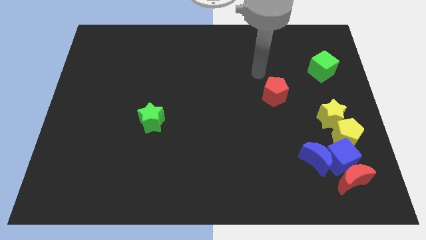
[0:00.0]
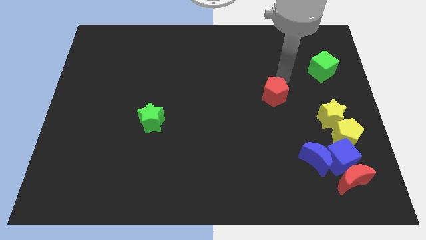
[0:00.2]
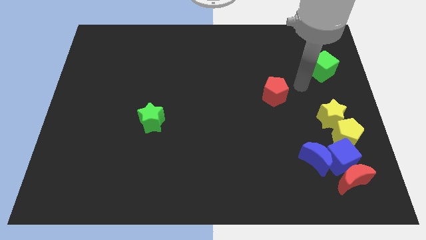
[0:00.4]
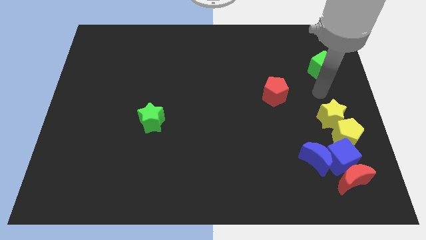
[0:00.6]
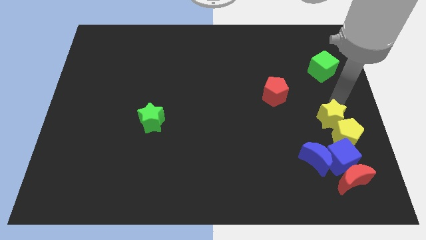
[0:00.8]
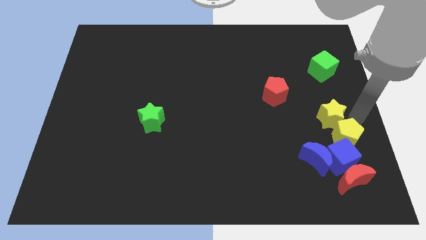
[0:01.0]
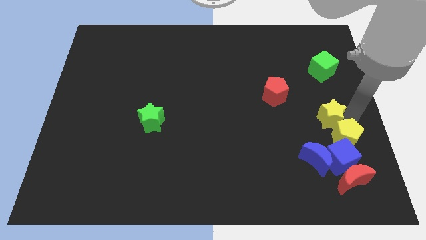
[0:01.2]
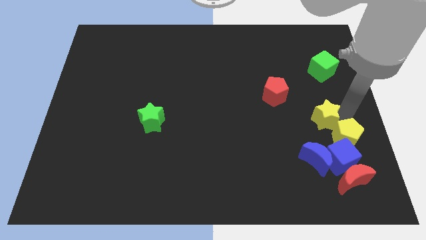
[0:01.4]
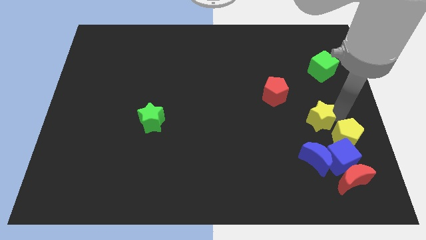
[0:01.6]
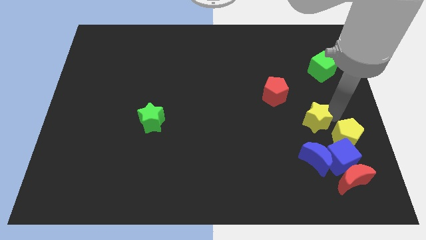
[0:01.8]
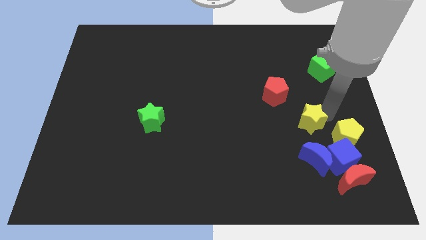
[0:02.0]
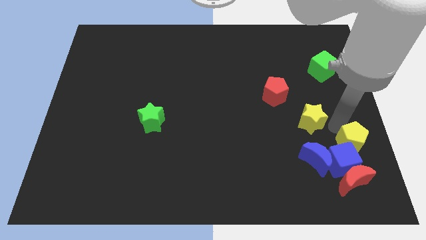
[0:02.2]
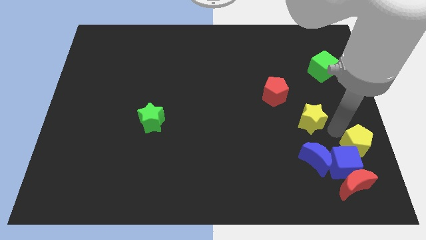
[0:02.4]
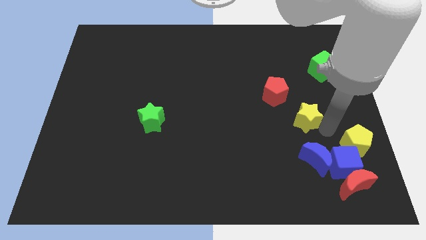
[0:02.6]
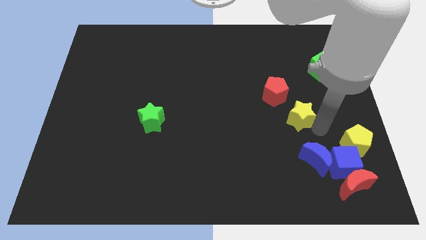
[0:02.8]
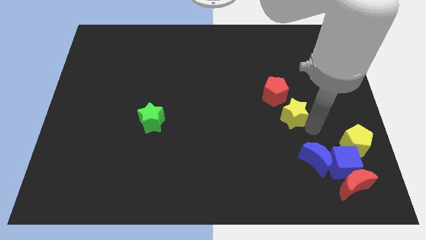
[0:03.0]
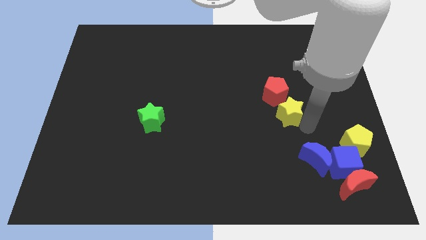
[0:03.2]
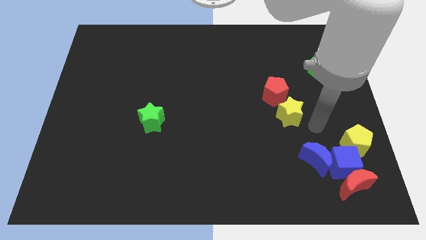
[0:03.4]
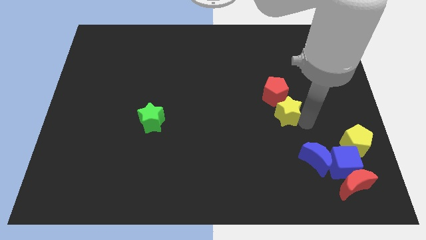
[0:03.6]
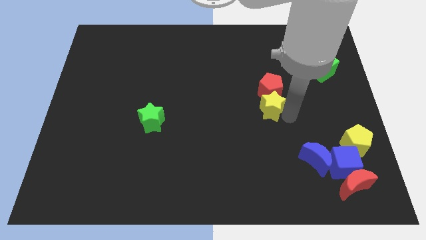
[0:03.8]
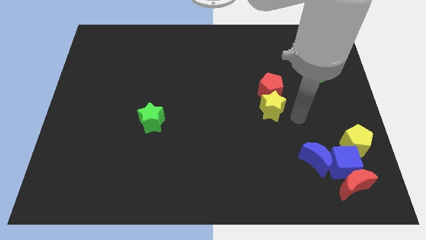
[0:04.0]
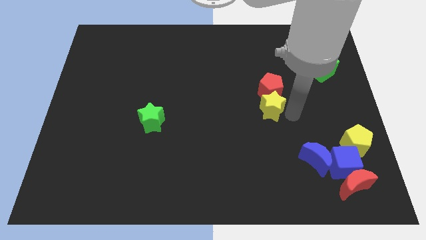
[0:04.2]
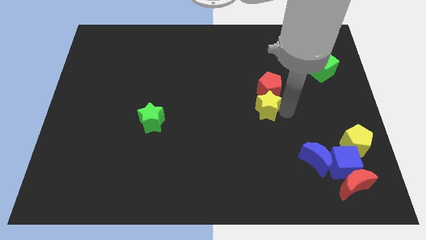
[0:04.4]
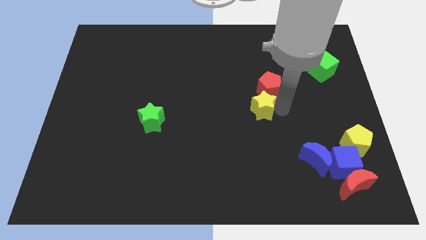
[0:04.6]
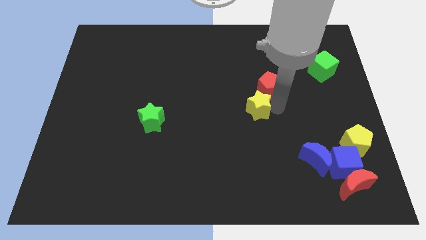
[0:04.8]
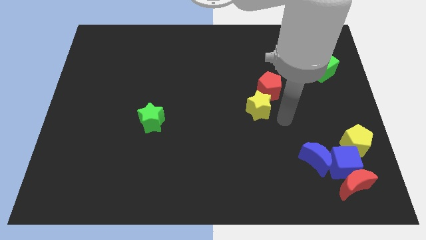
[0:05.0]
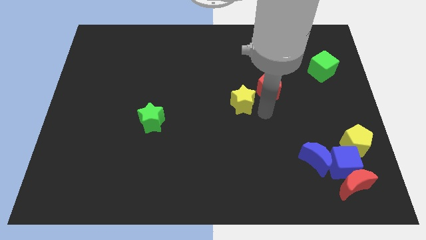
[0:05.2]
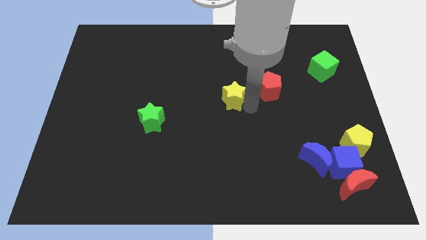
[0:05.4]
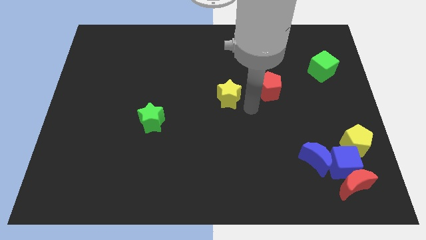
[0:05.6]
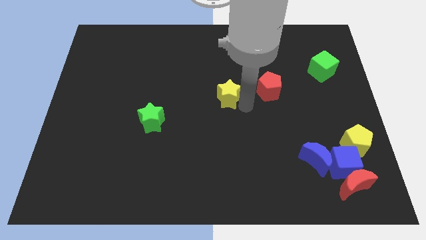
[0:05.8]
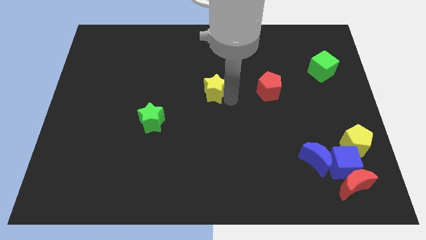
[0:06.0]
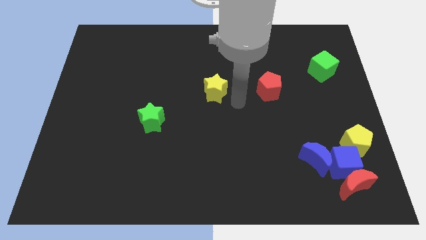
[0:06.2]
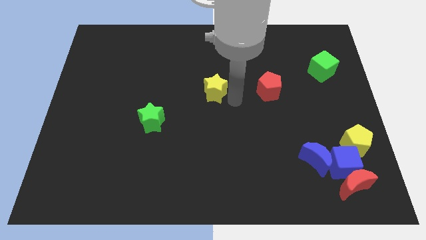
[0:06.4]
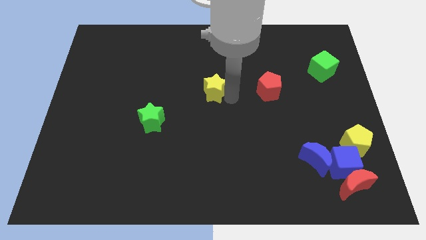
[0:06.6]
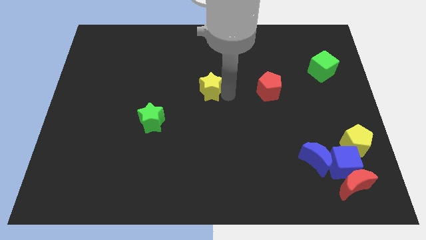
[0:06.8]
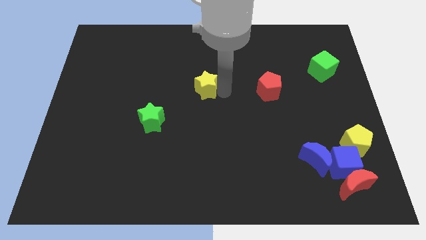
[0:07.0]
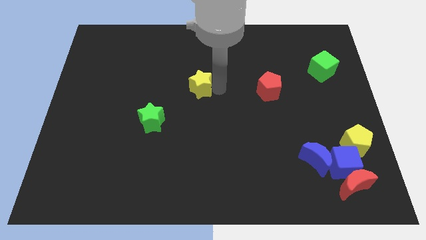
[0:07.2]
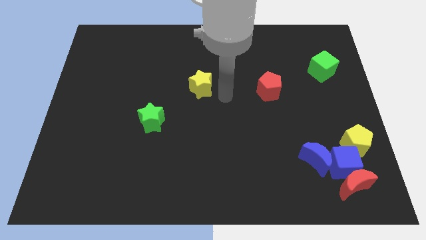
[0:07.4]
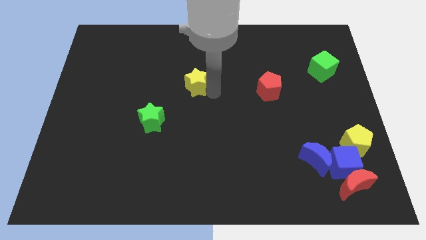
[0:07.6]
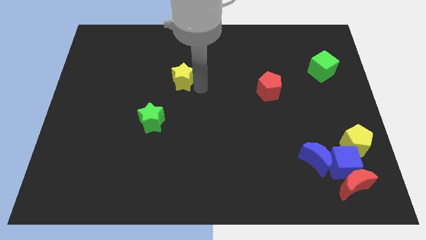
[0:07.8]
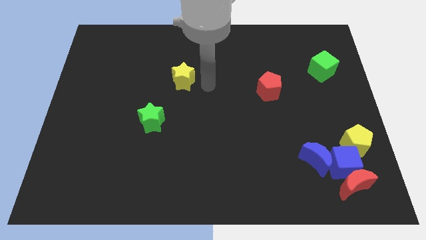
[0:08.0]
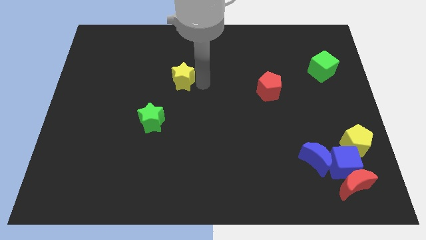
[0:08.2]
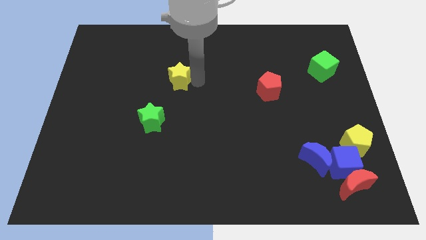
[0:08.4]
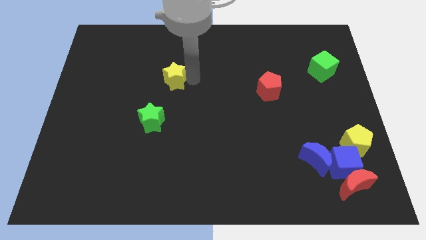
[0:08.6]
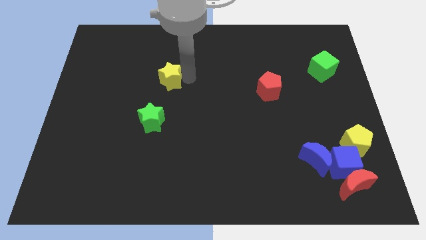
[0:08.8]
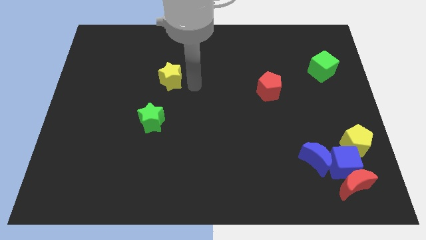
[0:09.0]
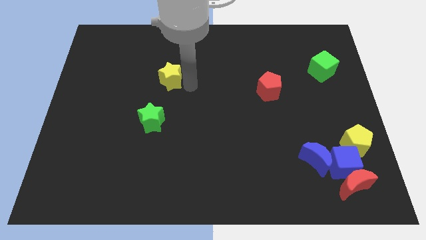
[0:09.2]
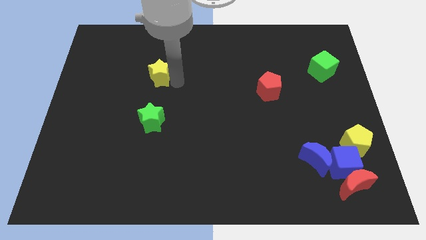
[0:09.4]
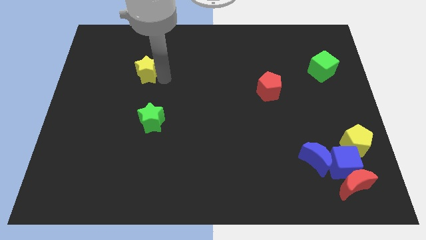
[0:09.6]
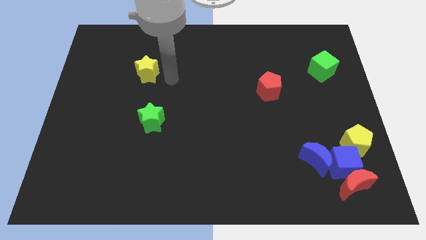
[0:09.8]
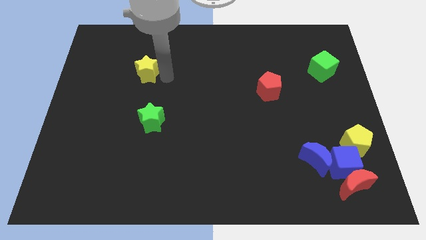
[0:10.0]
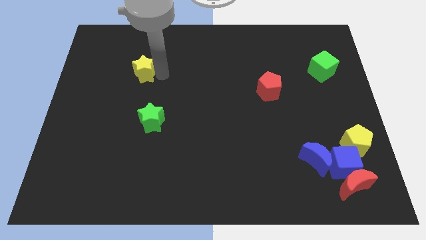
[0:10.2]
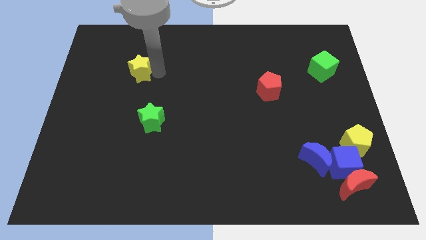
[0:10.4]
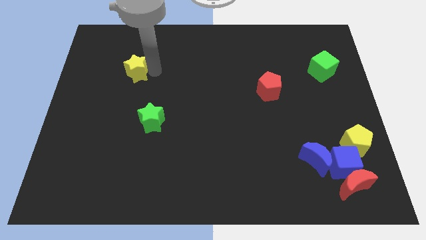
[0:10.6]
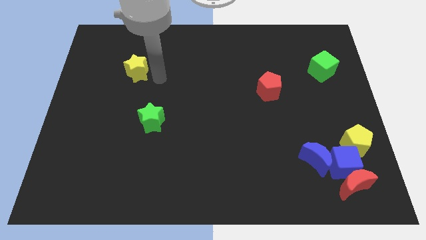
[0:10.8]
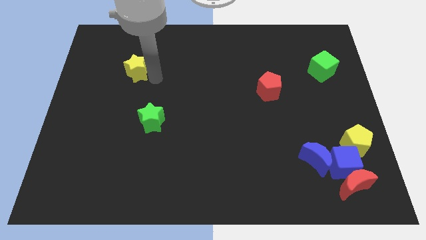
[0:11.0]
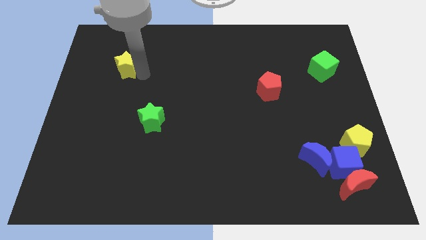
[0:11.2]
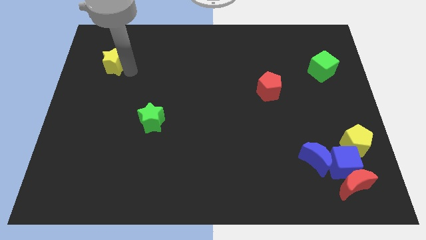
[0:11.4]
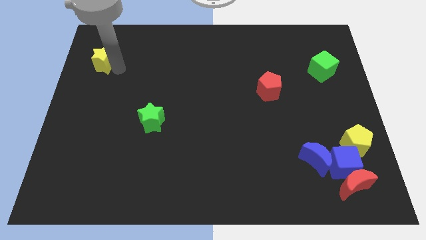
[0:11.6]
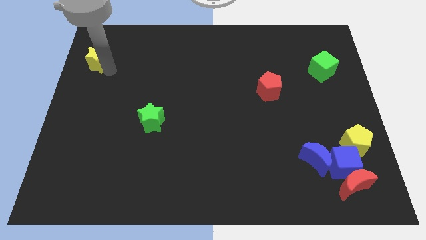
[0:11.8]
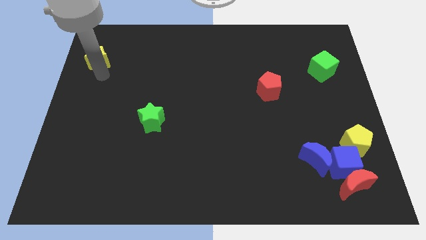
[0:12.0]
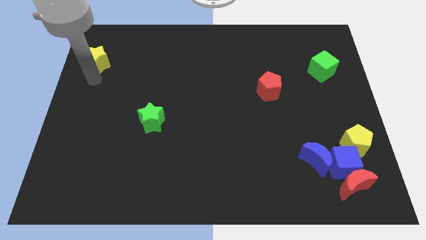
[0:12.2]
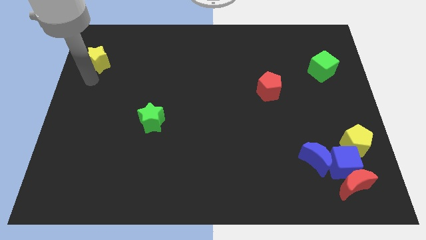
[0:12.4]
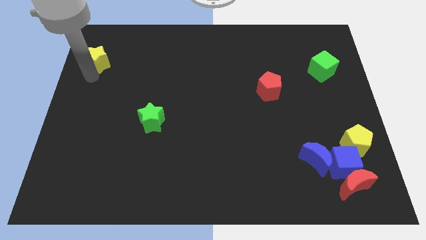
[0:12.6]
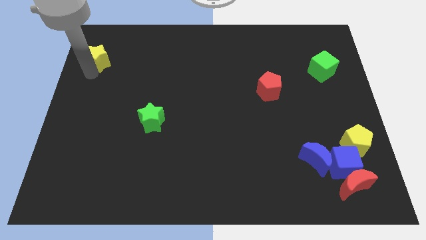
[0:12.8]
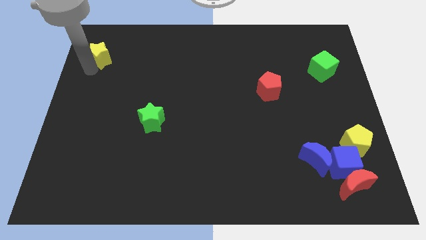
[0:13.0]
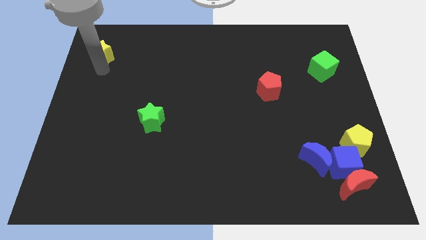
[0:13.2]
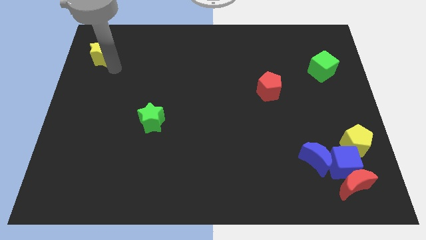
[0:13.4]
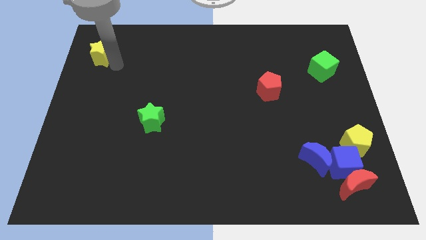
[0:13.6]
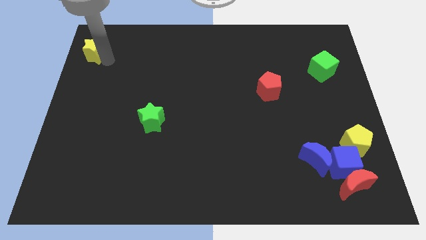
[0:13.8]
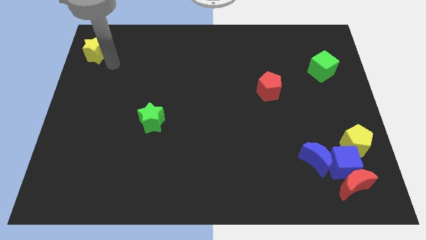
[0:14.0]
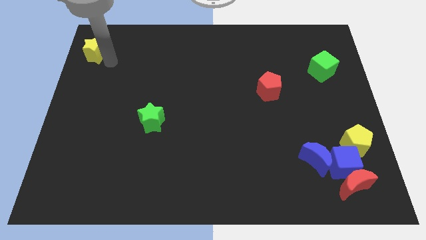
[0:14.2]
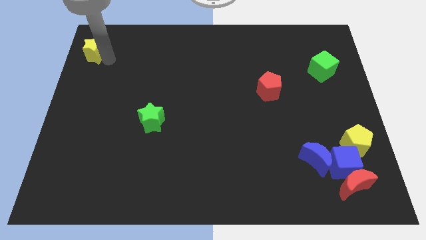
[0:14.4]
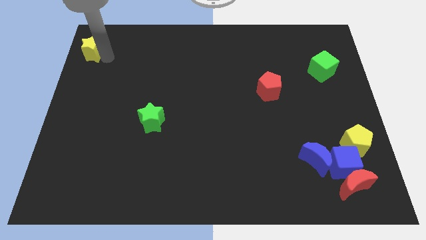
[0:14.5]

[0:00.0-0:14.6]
move the yellow star to the top left
